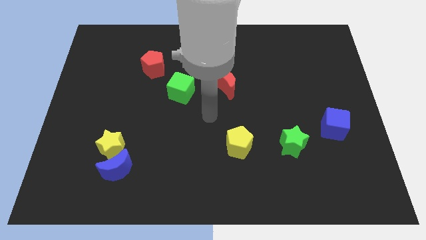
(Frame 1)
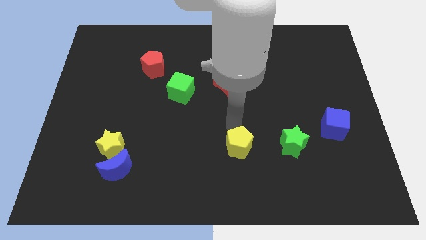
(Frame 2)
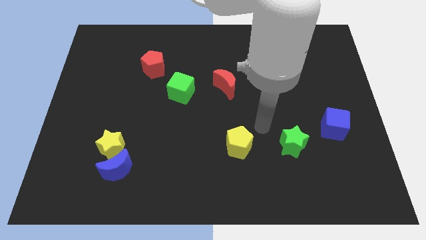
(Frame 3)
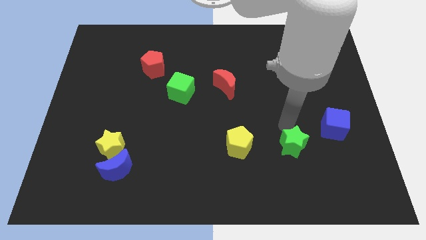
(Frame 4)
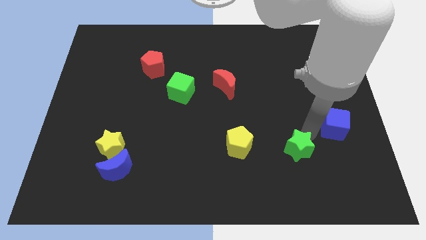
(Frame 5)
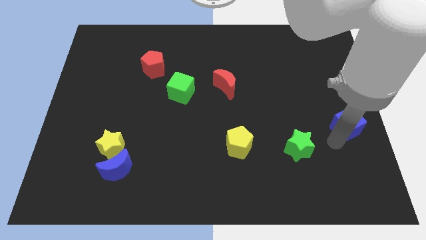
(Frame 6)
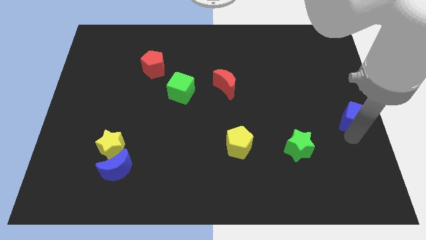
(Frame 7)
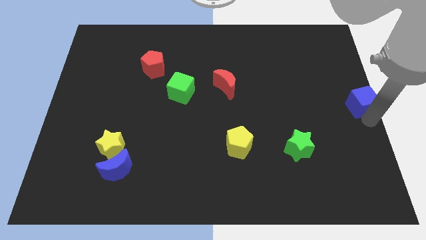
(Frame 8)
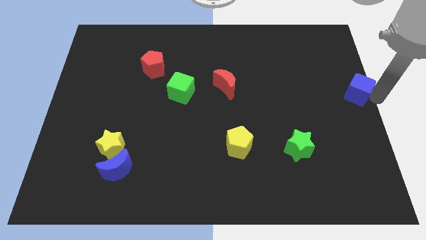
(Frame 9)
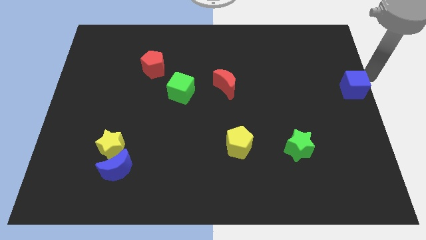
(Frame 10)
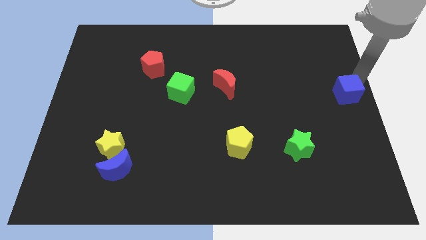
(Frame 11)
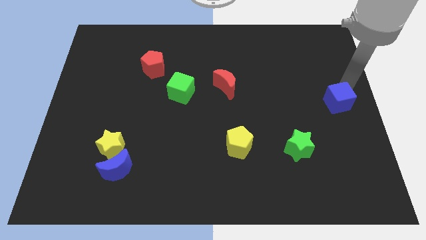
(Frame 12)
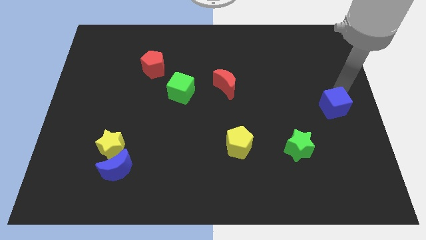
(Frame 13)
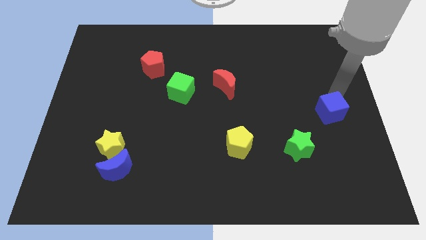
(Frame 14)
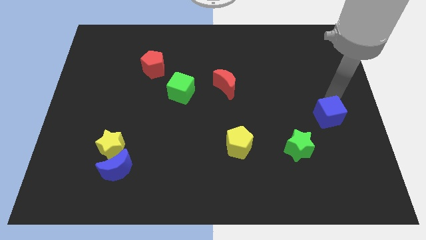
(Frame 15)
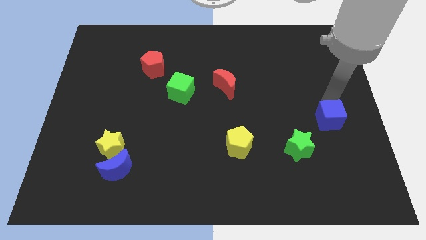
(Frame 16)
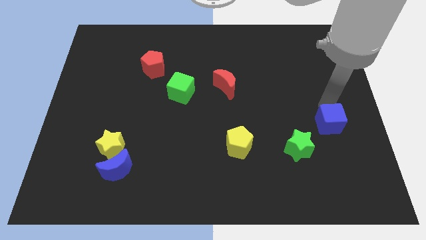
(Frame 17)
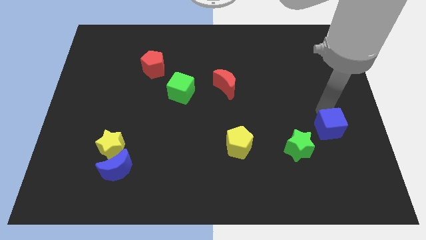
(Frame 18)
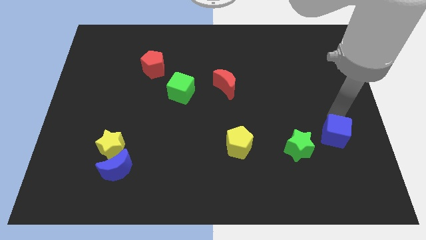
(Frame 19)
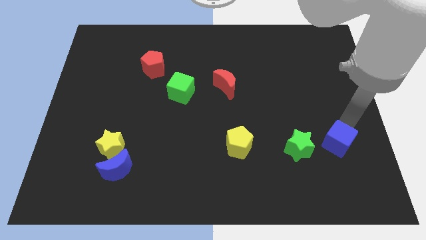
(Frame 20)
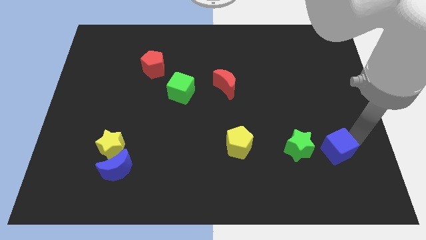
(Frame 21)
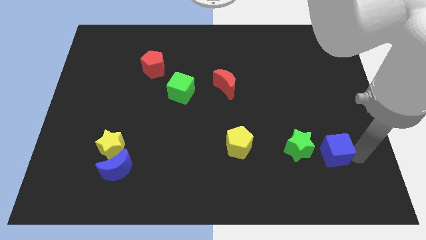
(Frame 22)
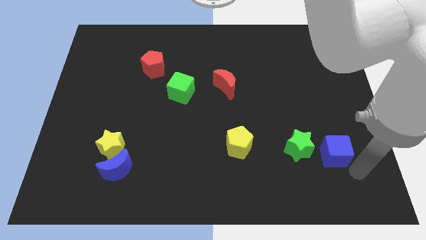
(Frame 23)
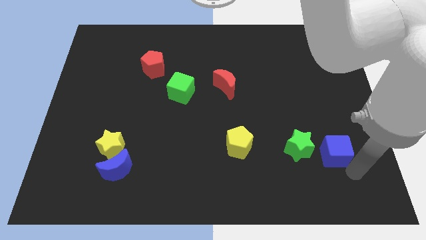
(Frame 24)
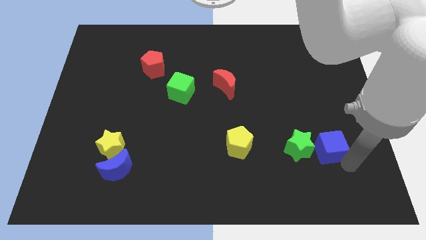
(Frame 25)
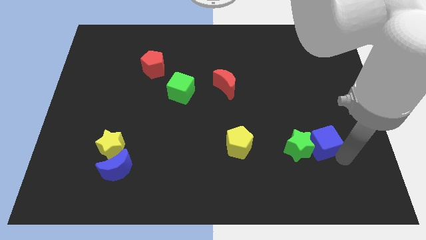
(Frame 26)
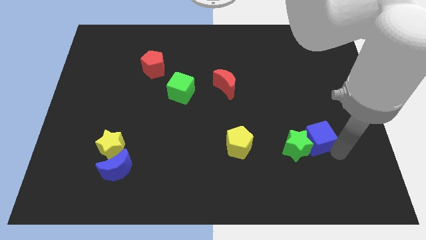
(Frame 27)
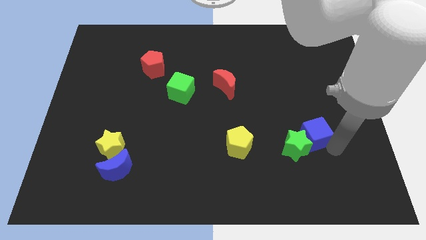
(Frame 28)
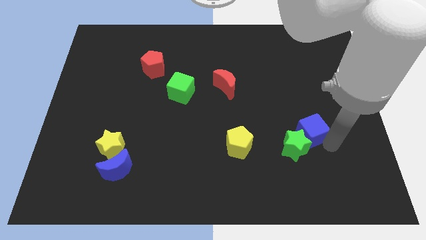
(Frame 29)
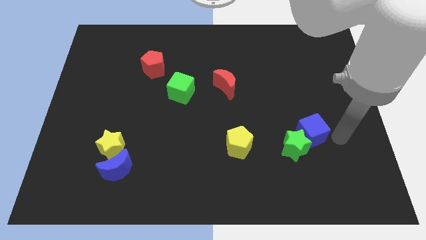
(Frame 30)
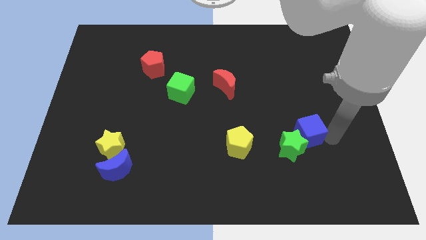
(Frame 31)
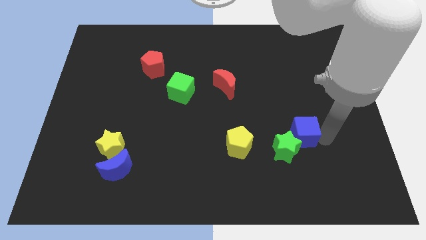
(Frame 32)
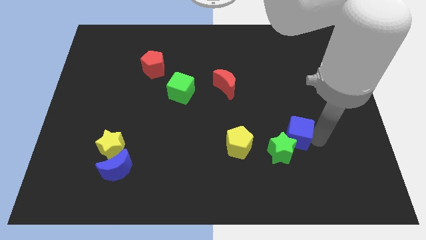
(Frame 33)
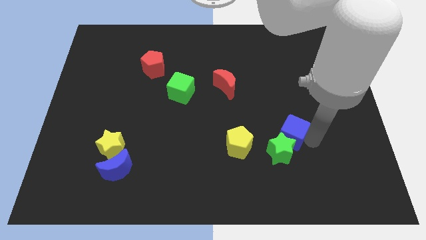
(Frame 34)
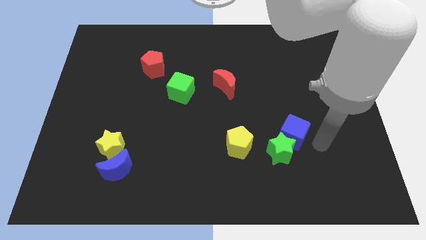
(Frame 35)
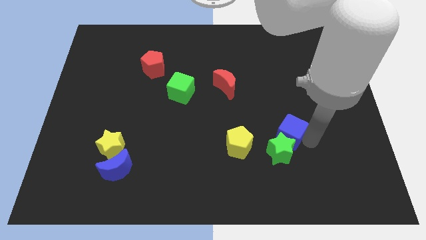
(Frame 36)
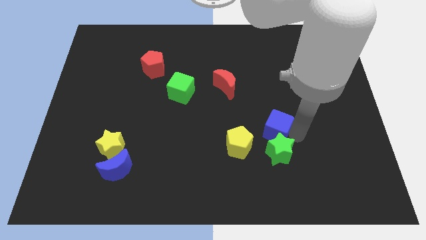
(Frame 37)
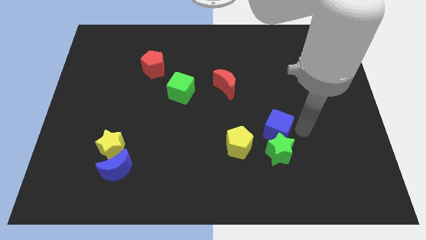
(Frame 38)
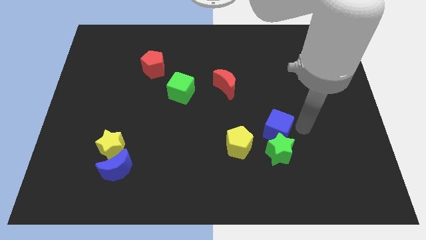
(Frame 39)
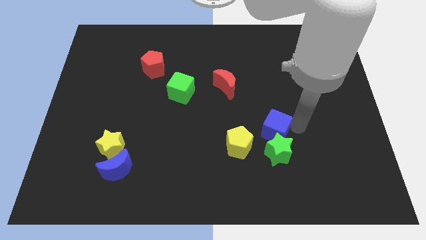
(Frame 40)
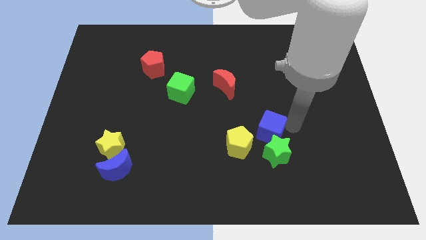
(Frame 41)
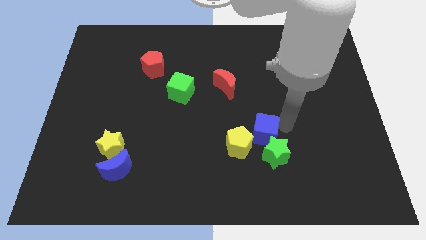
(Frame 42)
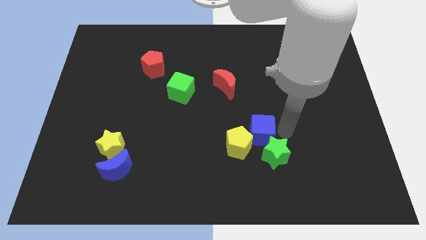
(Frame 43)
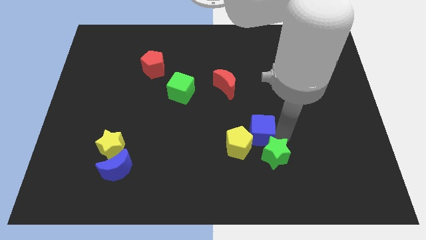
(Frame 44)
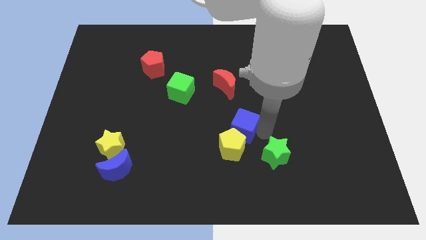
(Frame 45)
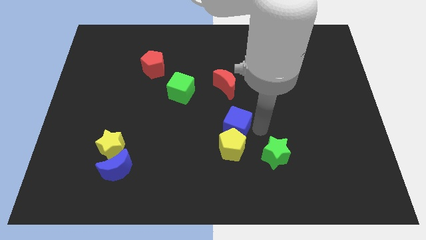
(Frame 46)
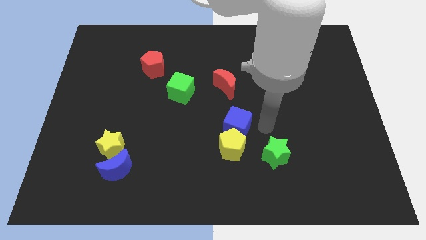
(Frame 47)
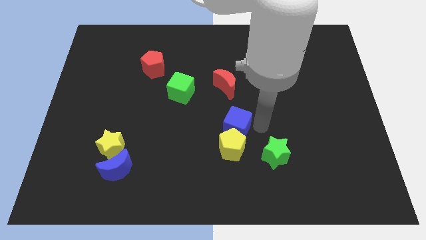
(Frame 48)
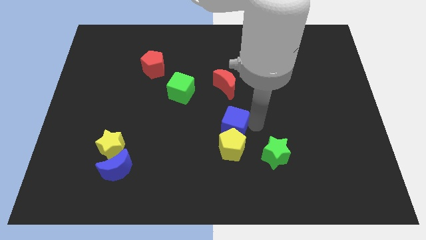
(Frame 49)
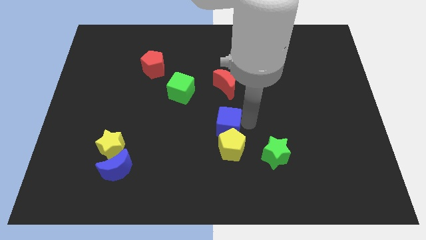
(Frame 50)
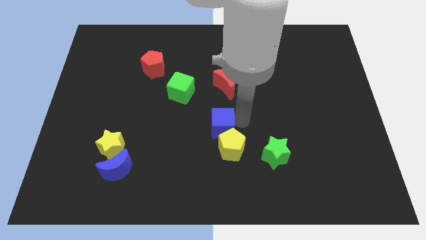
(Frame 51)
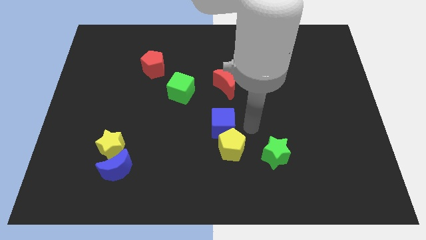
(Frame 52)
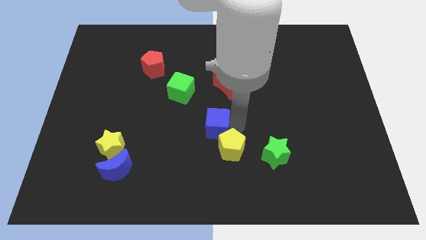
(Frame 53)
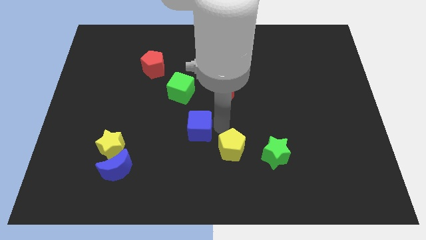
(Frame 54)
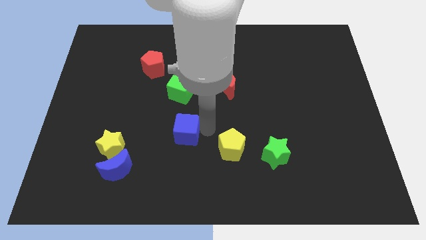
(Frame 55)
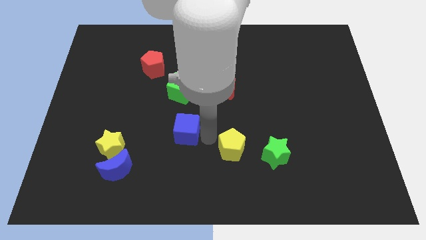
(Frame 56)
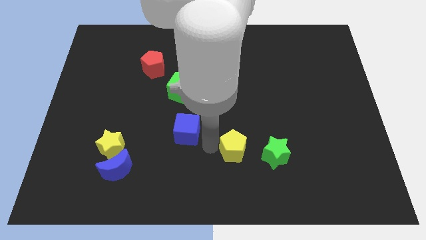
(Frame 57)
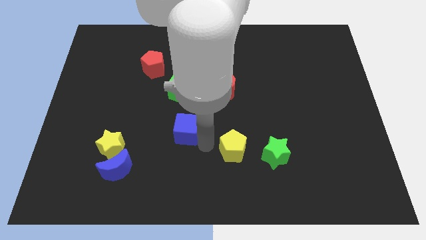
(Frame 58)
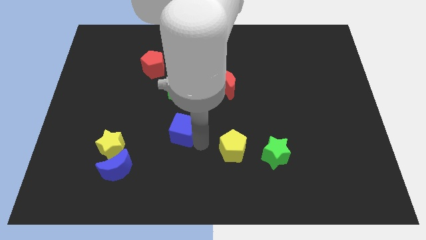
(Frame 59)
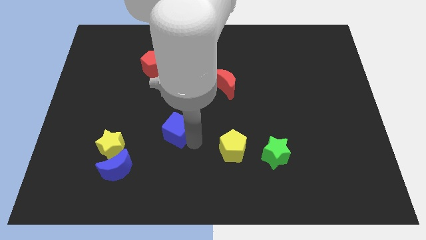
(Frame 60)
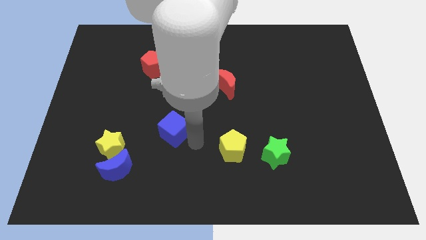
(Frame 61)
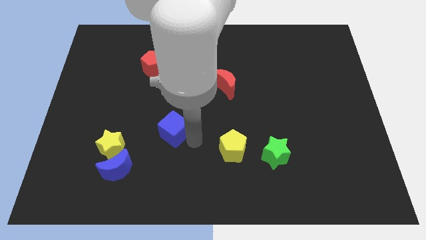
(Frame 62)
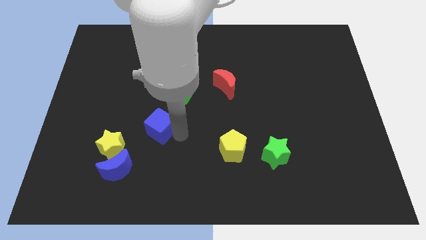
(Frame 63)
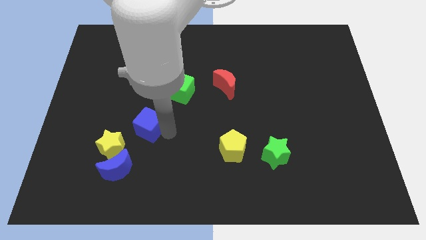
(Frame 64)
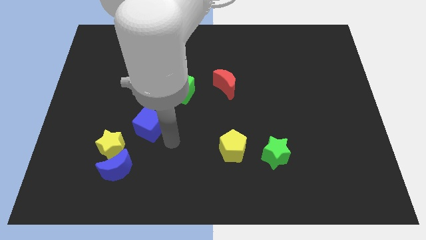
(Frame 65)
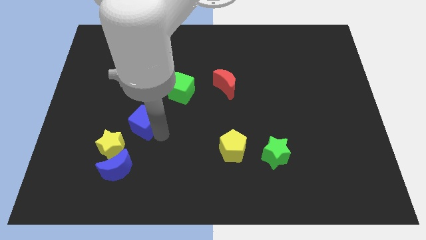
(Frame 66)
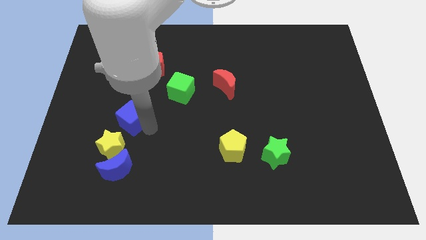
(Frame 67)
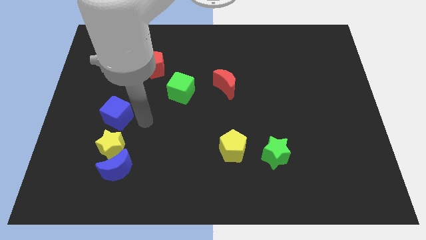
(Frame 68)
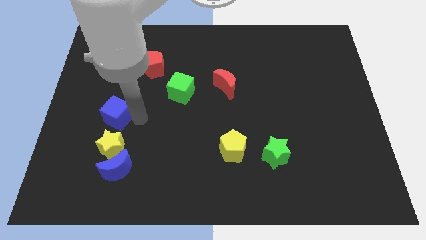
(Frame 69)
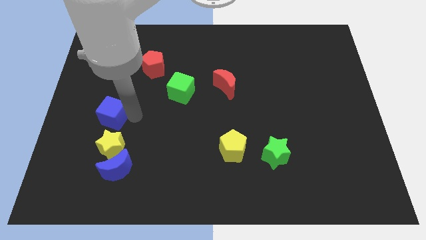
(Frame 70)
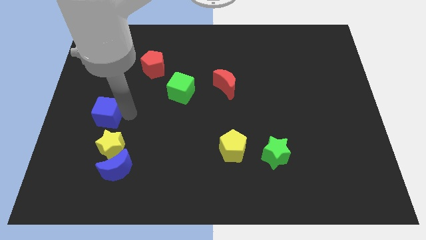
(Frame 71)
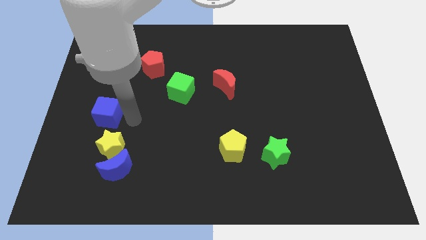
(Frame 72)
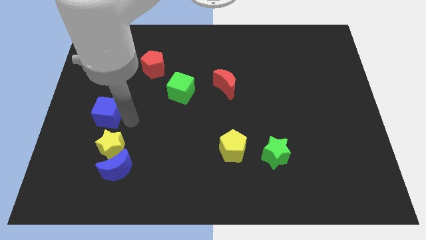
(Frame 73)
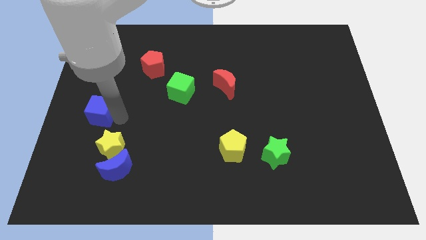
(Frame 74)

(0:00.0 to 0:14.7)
push the blue cube to the left side of the board
